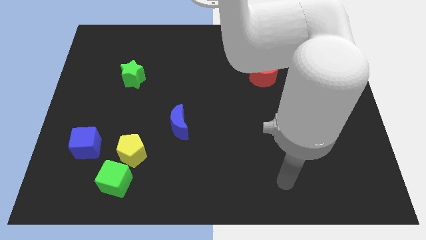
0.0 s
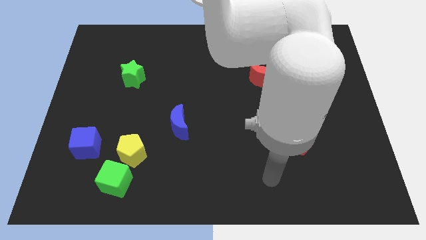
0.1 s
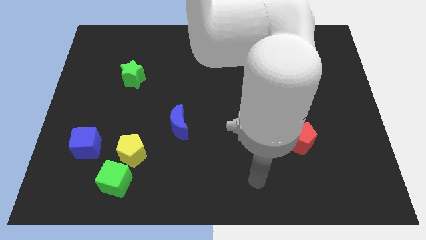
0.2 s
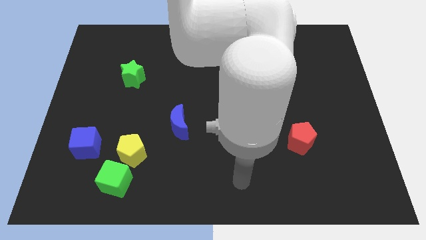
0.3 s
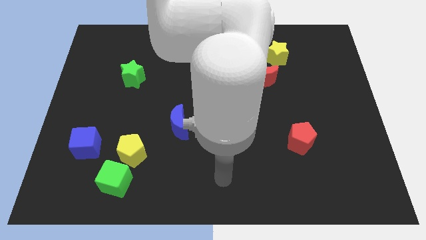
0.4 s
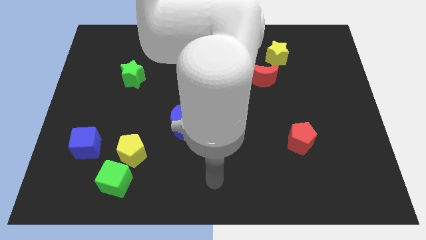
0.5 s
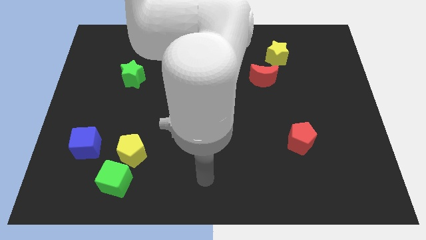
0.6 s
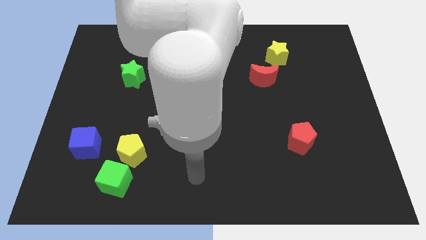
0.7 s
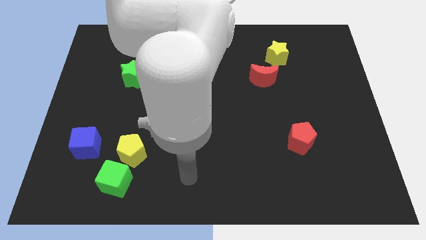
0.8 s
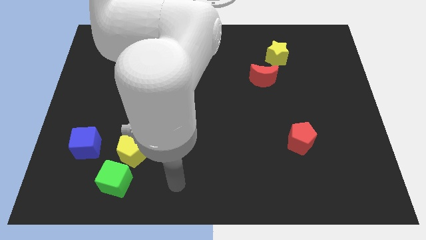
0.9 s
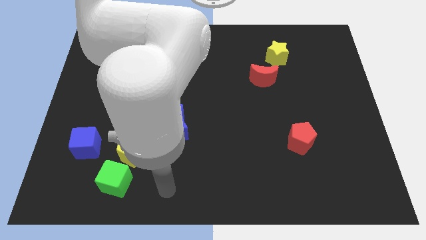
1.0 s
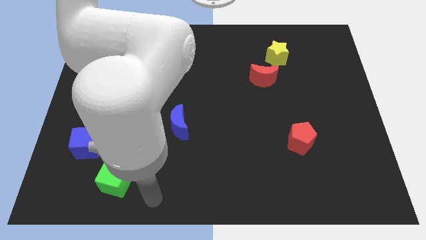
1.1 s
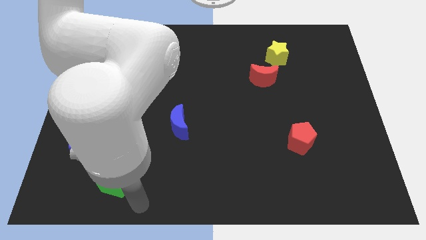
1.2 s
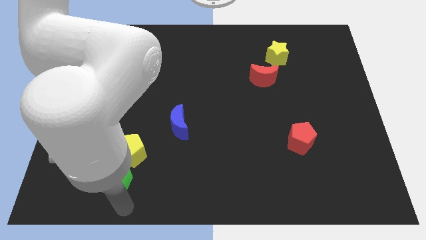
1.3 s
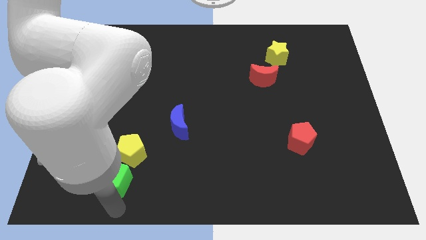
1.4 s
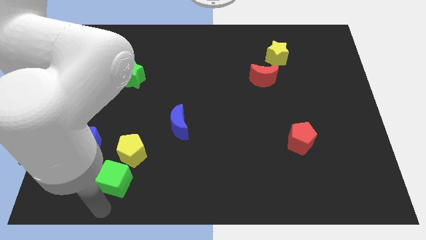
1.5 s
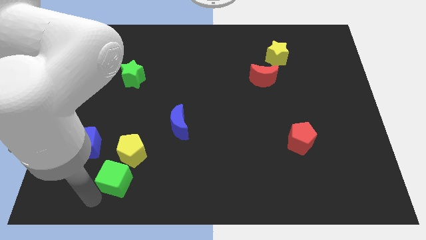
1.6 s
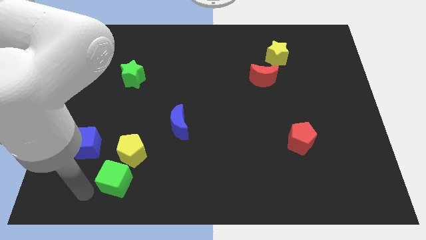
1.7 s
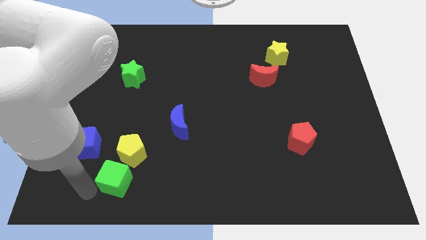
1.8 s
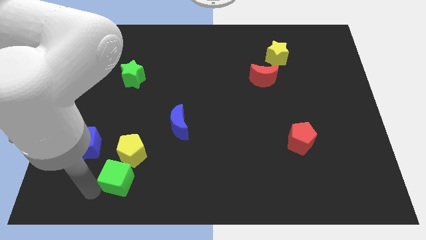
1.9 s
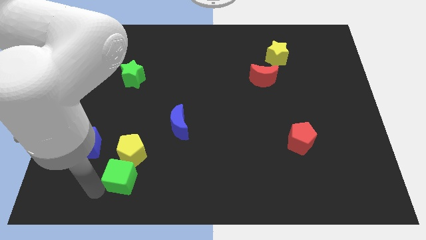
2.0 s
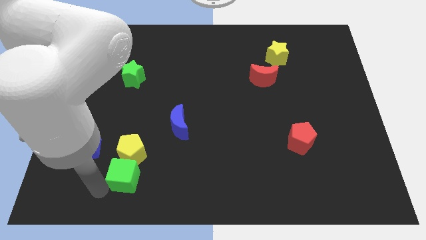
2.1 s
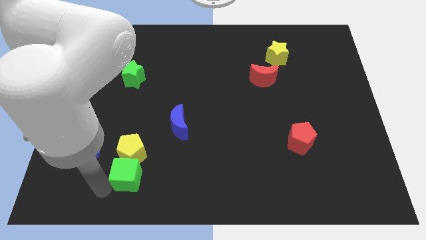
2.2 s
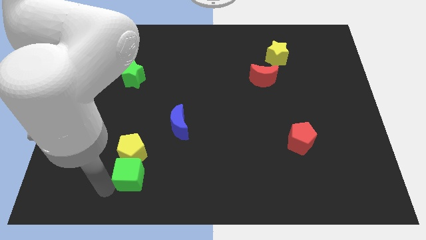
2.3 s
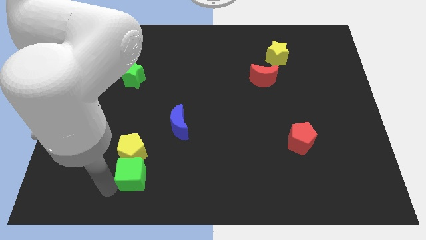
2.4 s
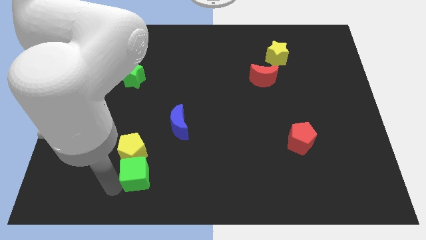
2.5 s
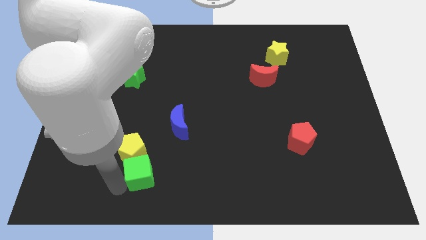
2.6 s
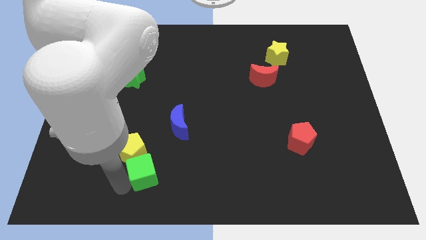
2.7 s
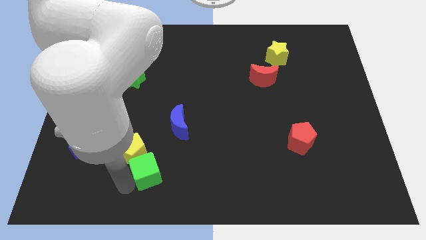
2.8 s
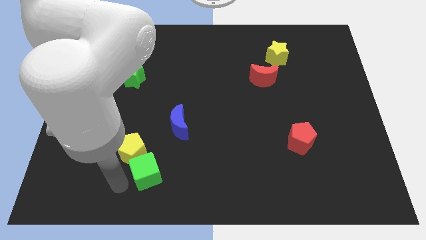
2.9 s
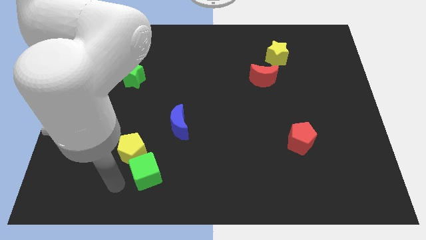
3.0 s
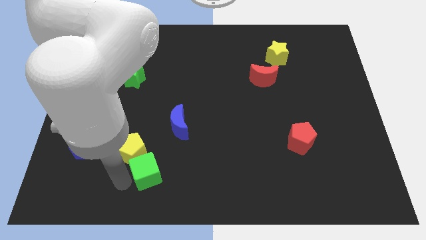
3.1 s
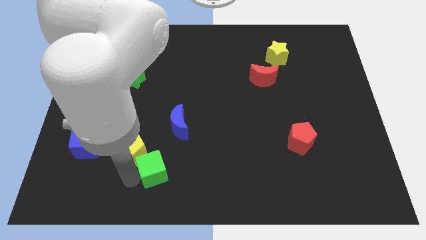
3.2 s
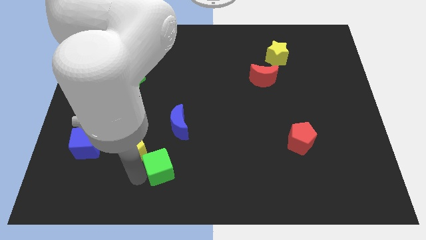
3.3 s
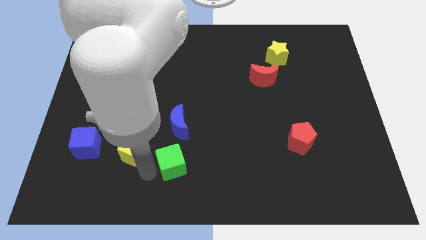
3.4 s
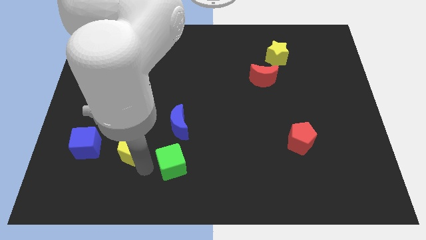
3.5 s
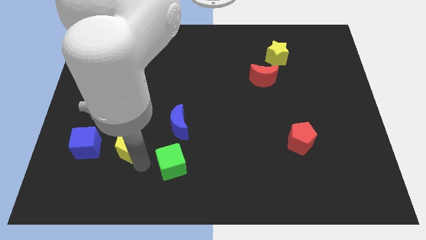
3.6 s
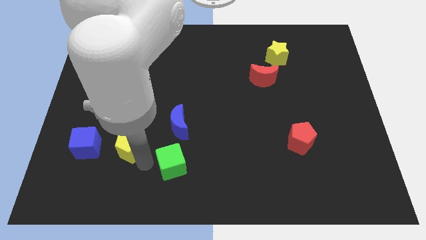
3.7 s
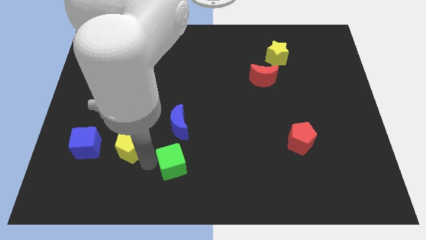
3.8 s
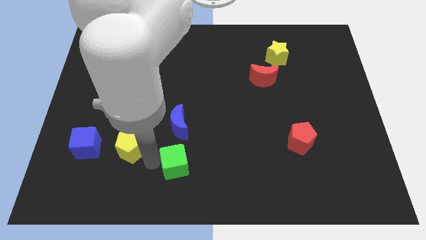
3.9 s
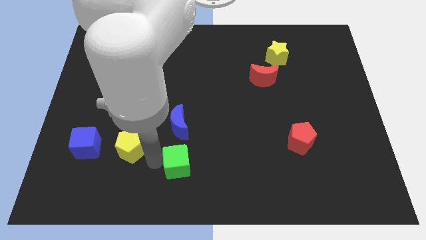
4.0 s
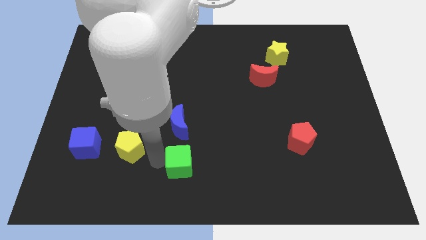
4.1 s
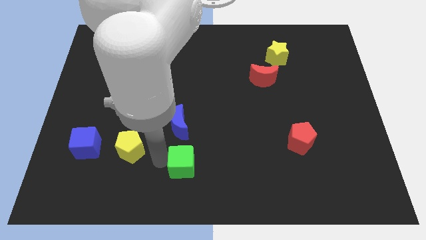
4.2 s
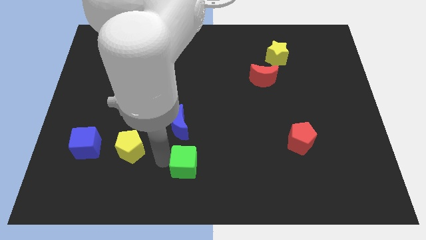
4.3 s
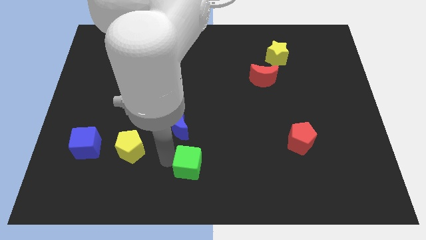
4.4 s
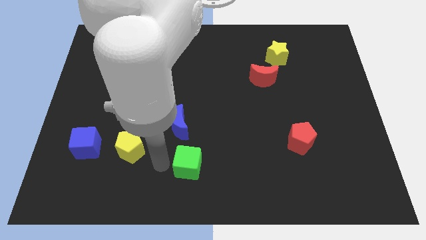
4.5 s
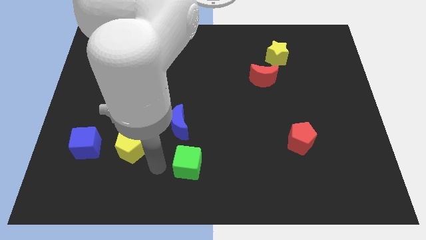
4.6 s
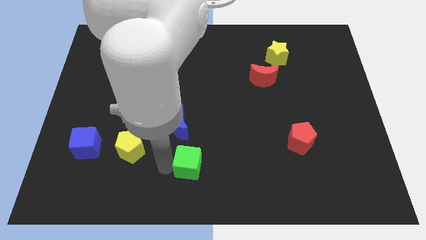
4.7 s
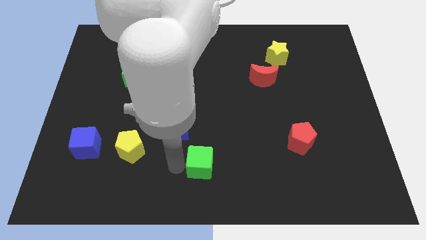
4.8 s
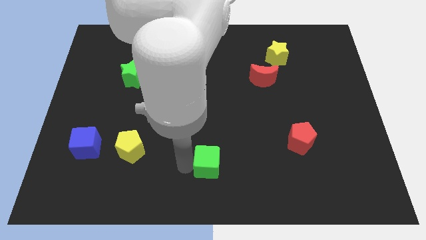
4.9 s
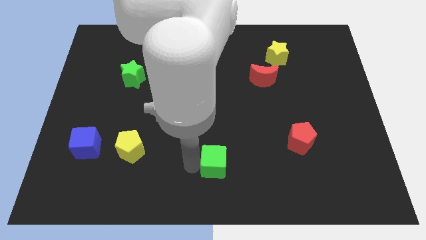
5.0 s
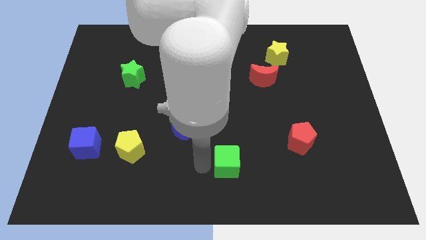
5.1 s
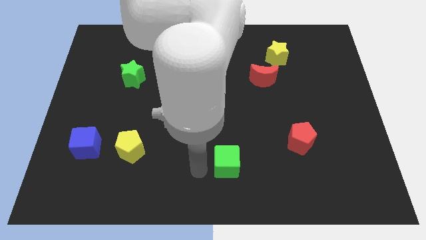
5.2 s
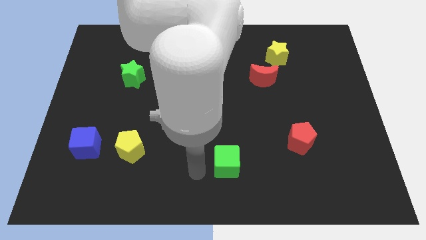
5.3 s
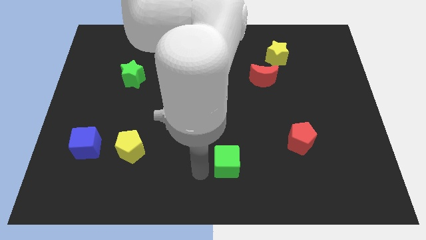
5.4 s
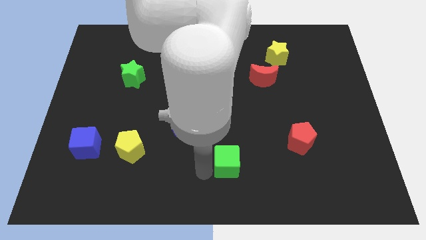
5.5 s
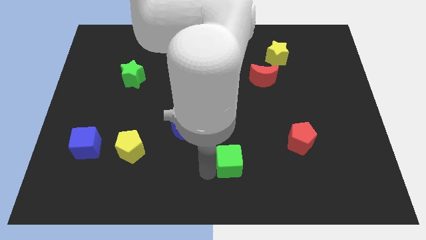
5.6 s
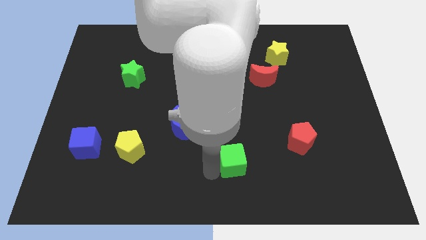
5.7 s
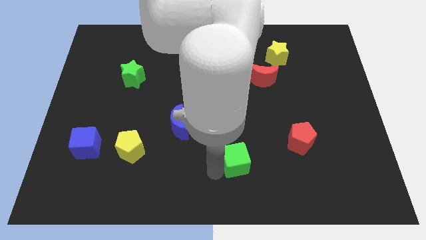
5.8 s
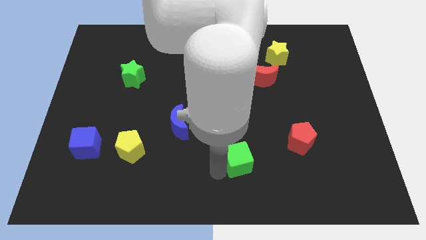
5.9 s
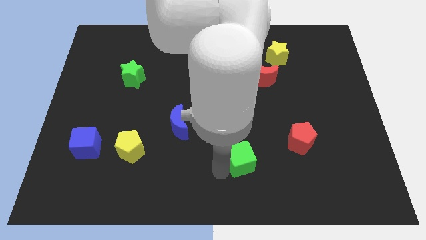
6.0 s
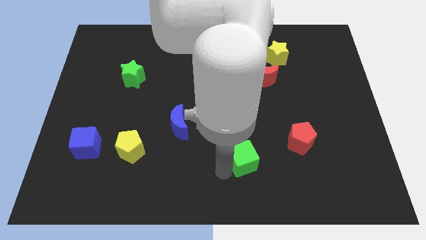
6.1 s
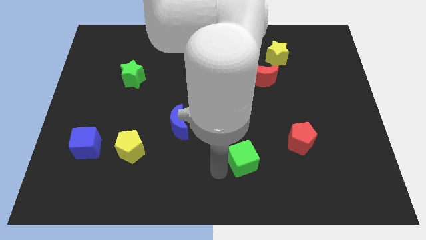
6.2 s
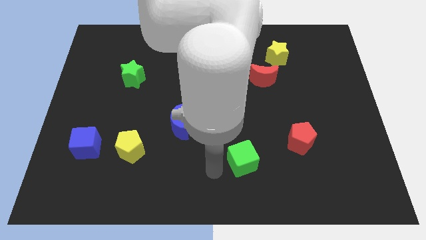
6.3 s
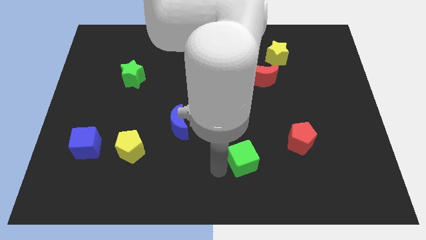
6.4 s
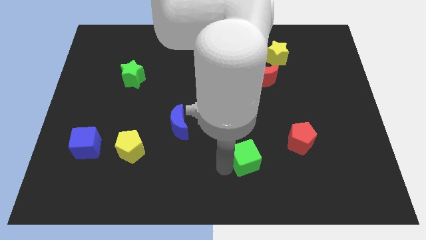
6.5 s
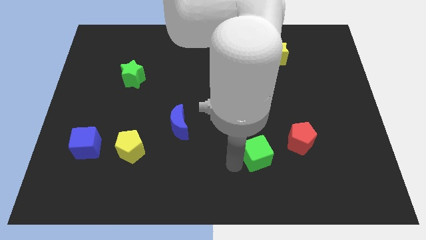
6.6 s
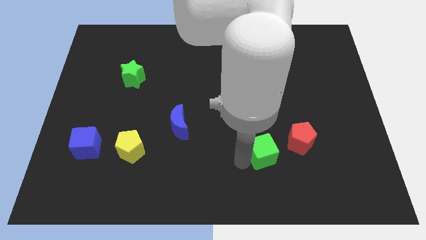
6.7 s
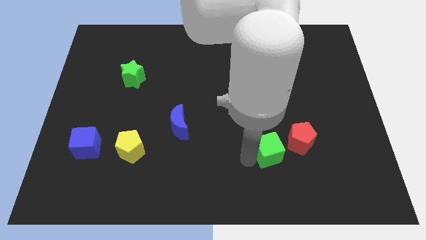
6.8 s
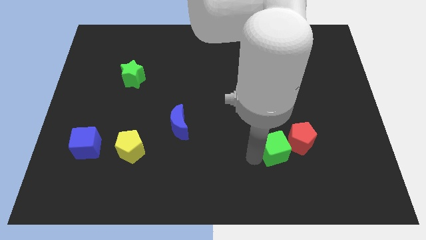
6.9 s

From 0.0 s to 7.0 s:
push the green cube to the red pentagon
